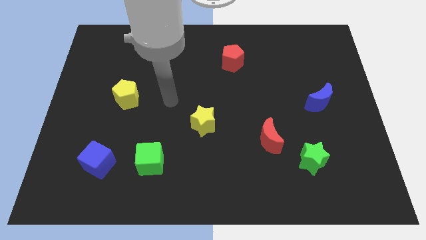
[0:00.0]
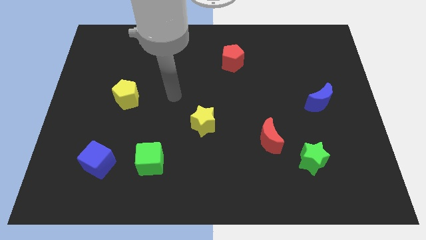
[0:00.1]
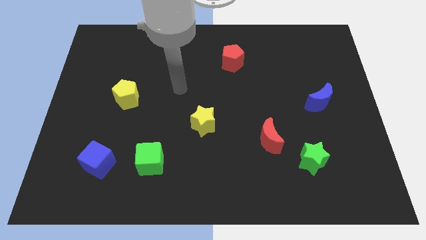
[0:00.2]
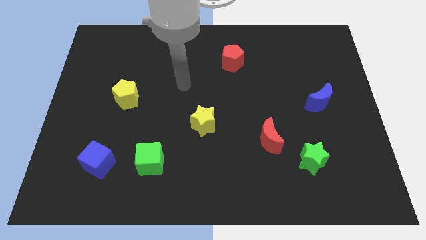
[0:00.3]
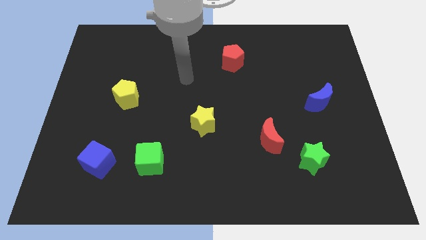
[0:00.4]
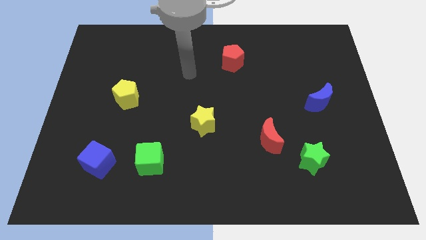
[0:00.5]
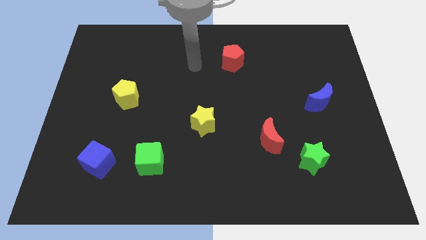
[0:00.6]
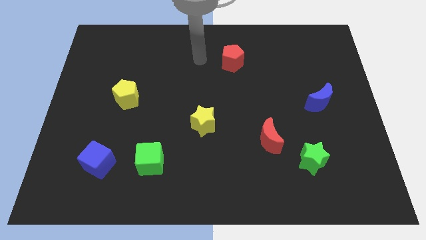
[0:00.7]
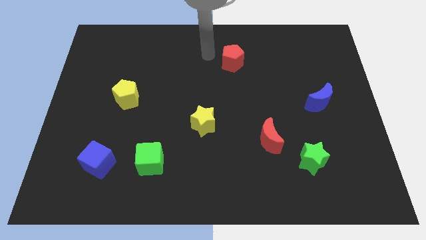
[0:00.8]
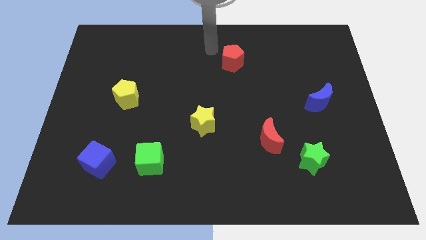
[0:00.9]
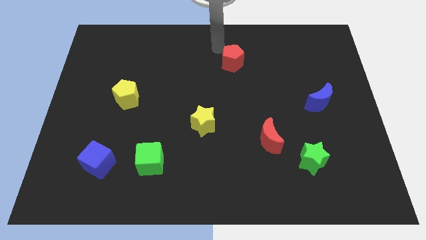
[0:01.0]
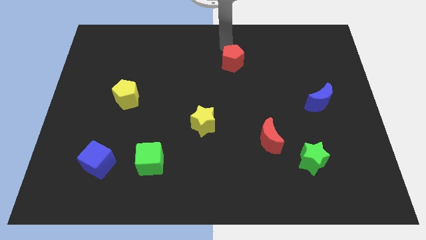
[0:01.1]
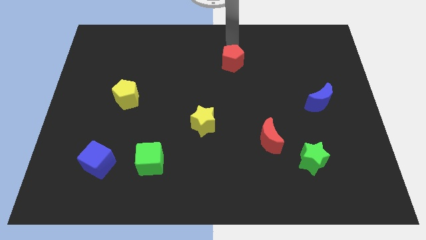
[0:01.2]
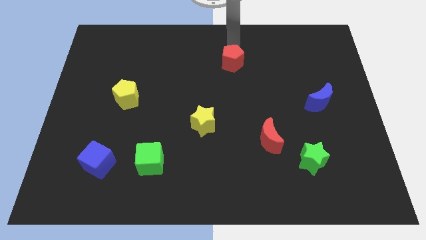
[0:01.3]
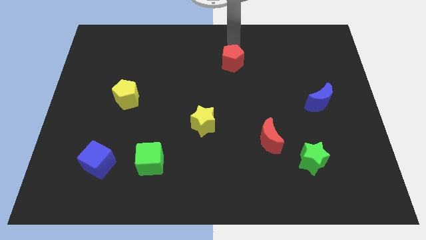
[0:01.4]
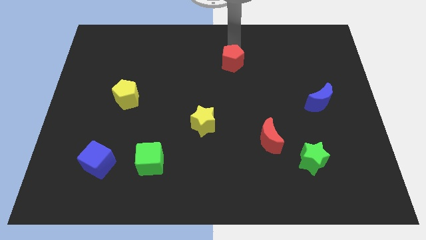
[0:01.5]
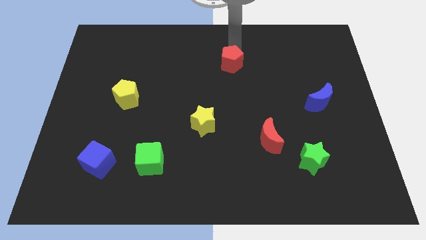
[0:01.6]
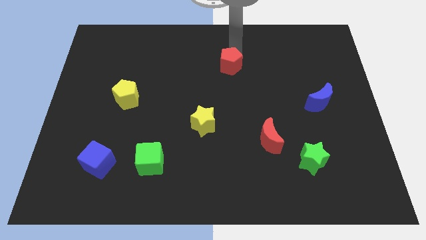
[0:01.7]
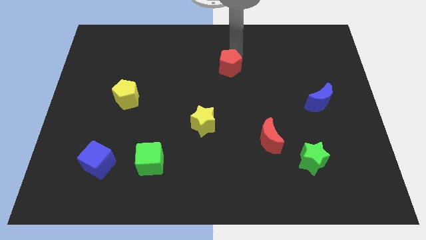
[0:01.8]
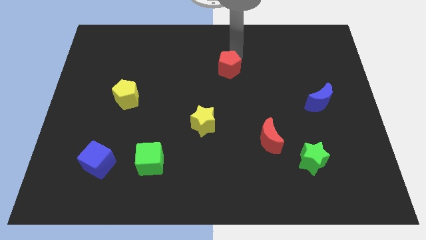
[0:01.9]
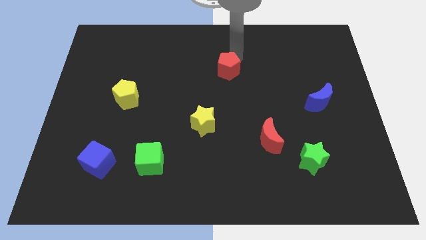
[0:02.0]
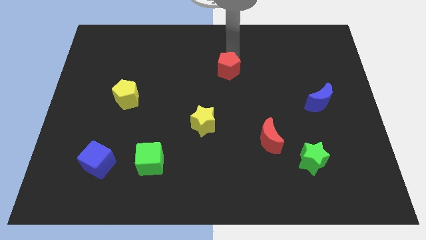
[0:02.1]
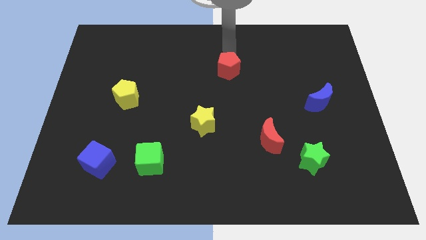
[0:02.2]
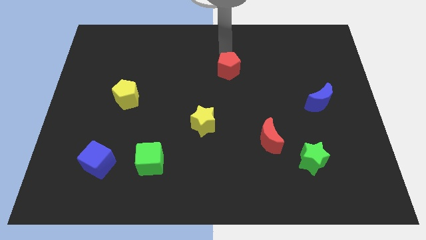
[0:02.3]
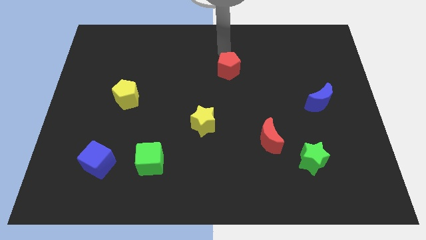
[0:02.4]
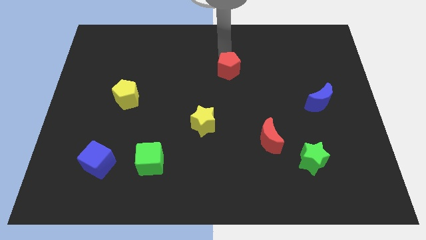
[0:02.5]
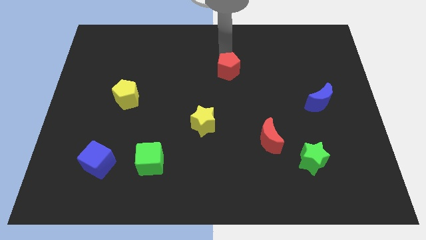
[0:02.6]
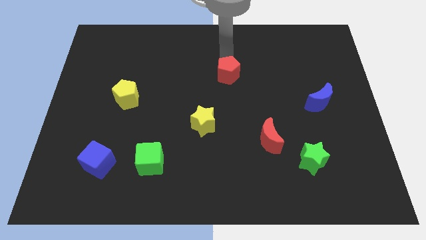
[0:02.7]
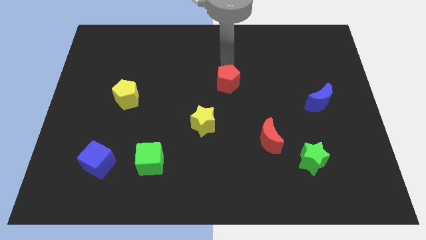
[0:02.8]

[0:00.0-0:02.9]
slightly slide the red pentagon down

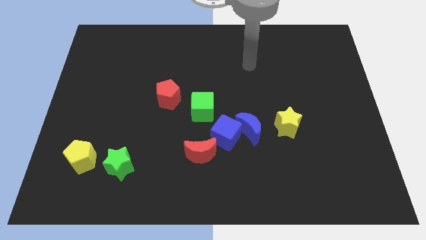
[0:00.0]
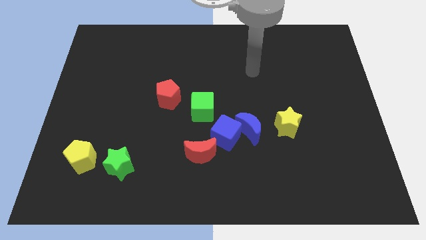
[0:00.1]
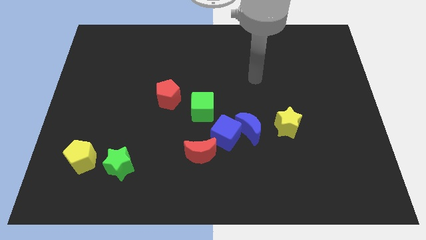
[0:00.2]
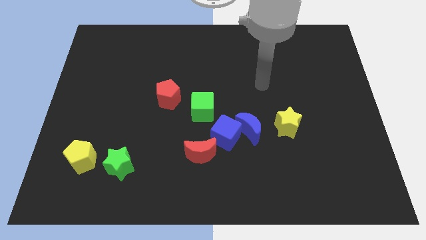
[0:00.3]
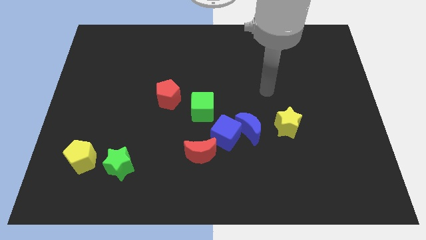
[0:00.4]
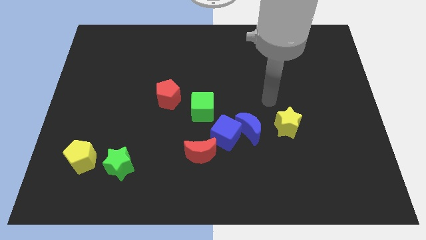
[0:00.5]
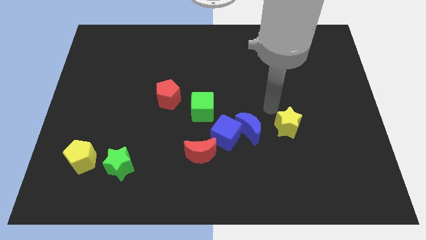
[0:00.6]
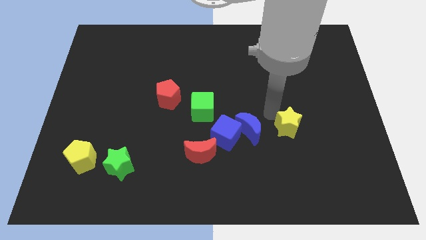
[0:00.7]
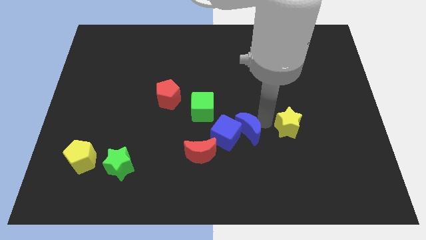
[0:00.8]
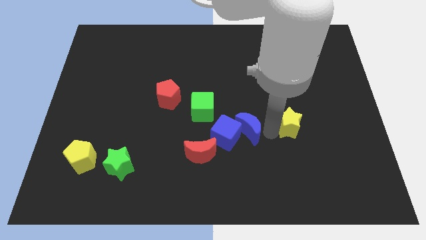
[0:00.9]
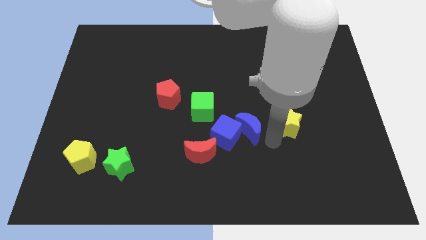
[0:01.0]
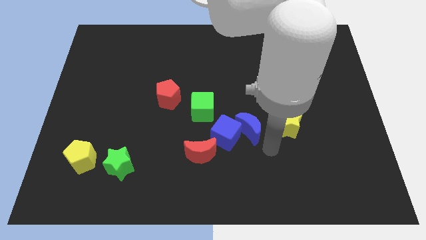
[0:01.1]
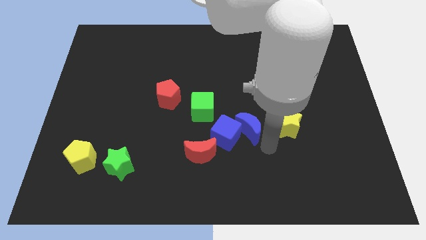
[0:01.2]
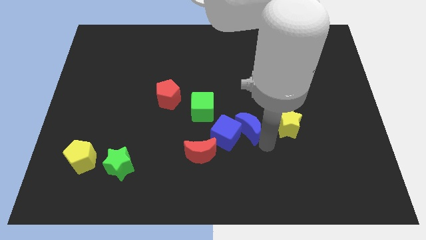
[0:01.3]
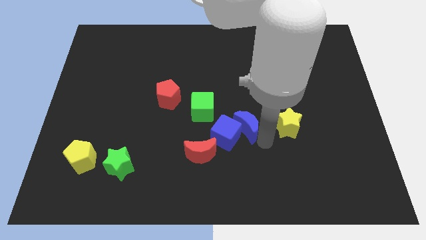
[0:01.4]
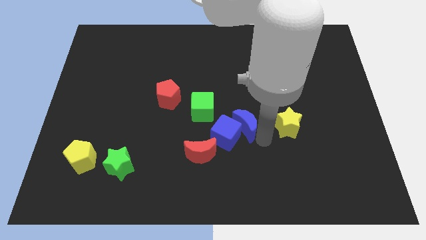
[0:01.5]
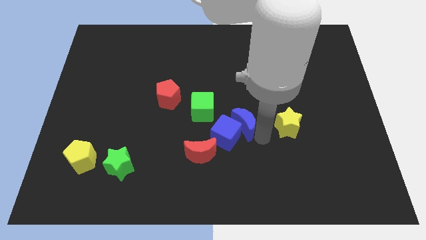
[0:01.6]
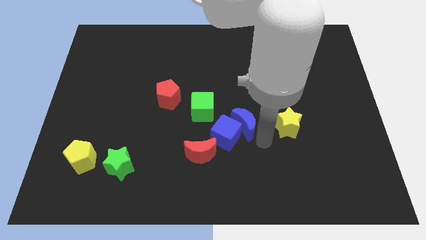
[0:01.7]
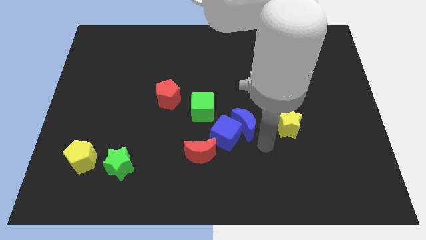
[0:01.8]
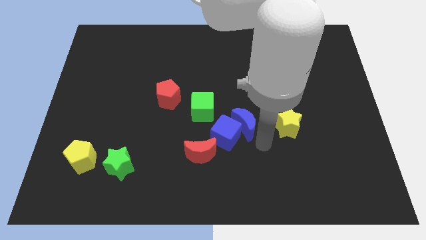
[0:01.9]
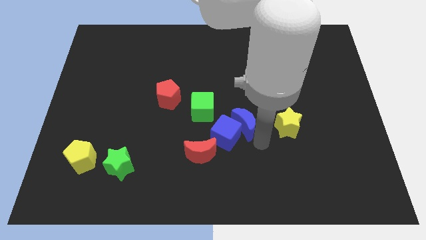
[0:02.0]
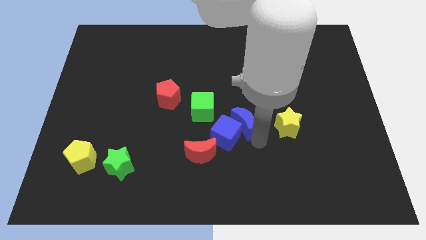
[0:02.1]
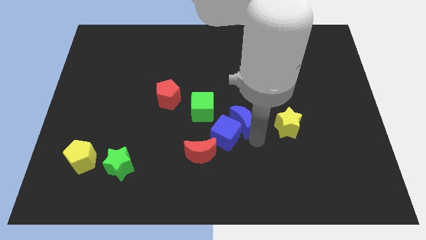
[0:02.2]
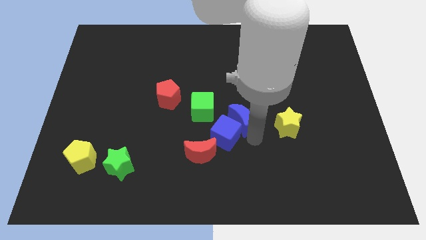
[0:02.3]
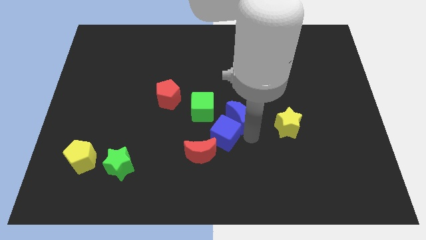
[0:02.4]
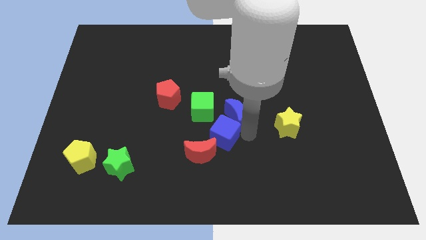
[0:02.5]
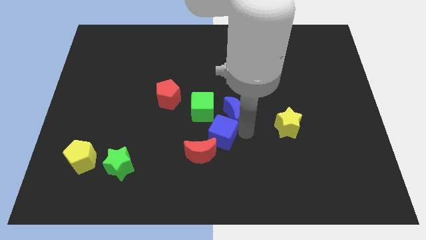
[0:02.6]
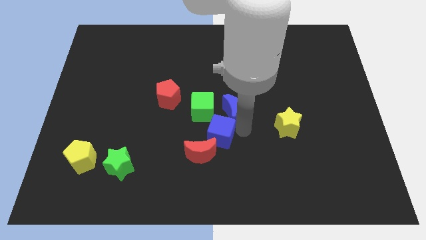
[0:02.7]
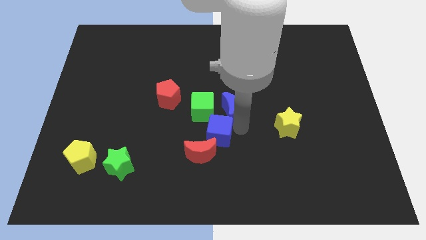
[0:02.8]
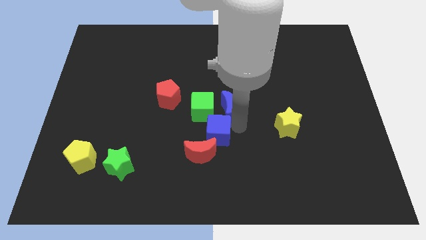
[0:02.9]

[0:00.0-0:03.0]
push the blue moon diagonally up and left somewhat

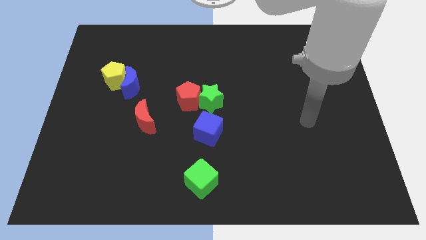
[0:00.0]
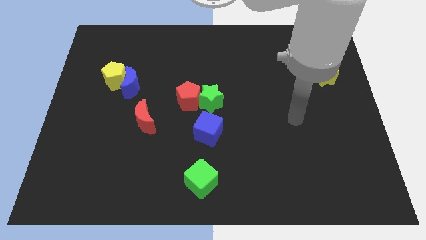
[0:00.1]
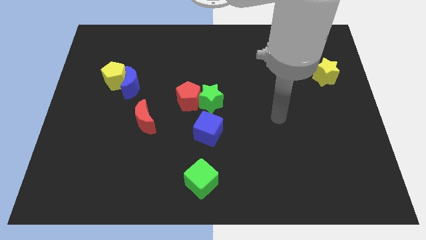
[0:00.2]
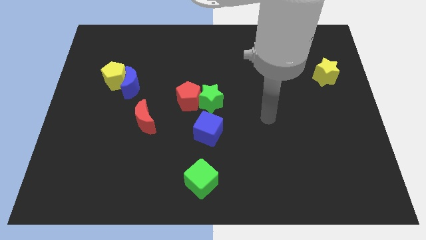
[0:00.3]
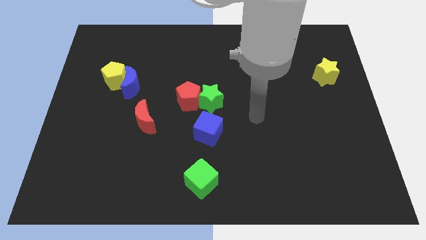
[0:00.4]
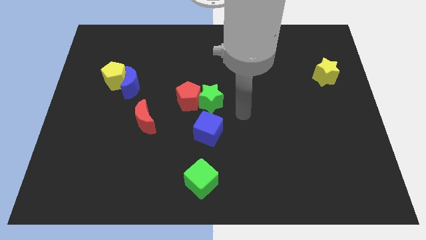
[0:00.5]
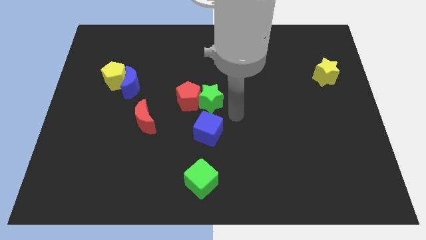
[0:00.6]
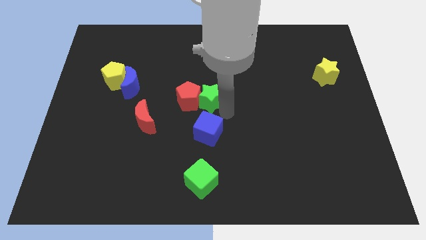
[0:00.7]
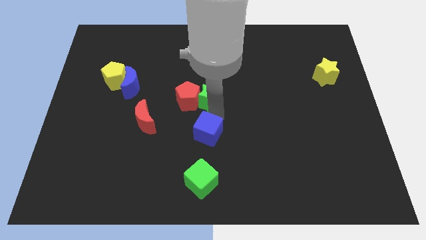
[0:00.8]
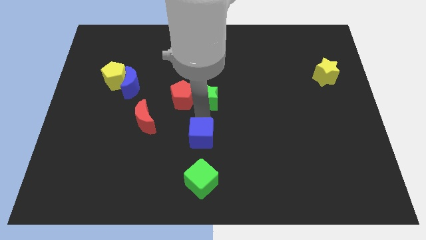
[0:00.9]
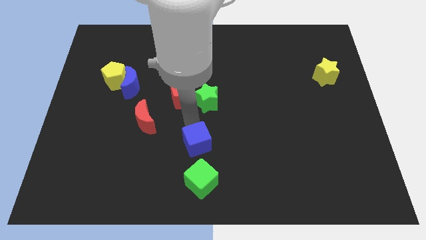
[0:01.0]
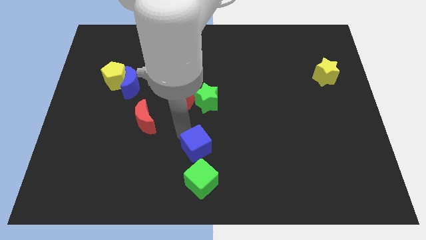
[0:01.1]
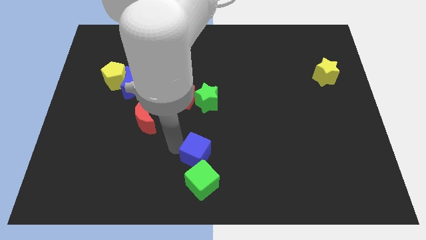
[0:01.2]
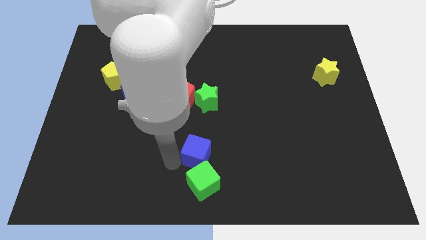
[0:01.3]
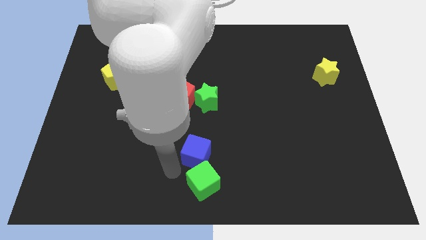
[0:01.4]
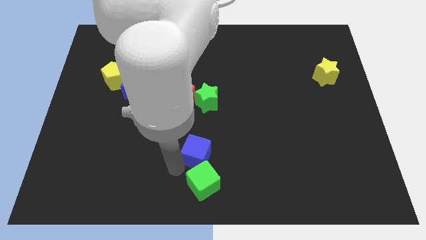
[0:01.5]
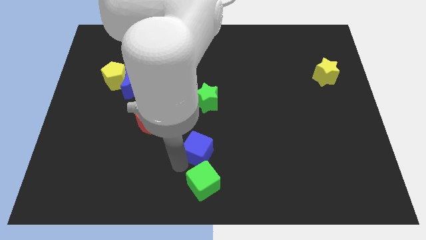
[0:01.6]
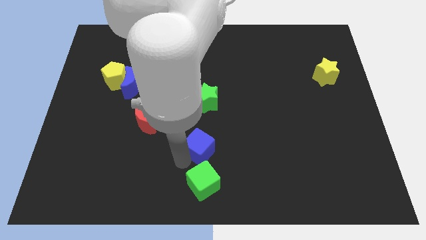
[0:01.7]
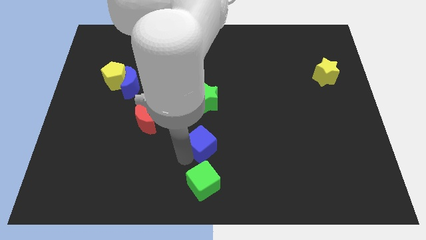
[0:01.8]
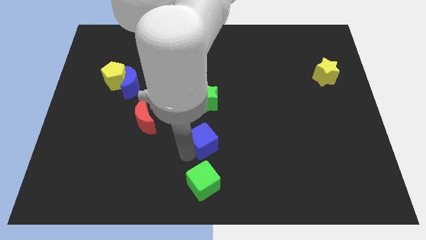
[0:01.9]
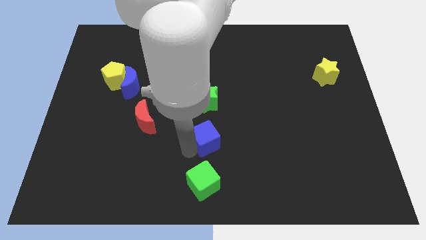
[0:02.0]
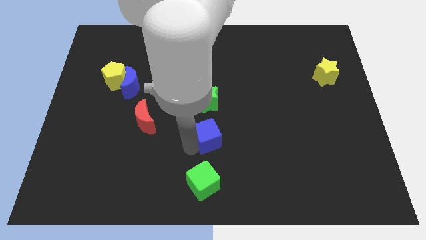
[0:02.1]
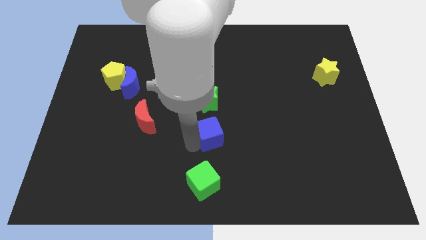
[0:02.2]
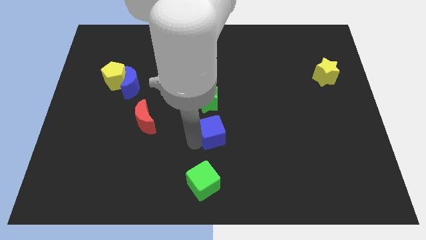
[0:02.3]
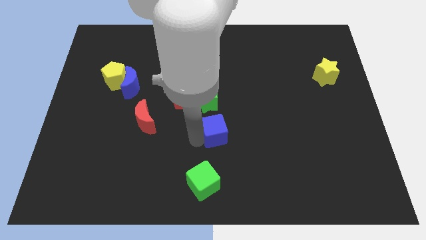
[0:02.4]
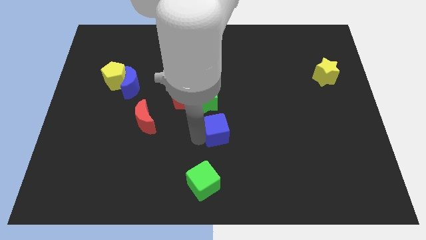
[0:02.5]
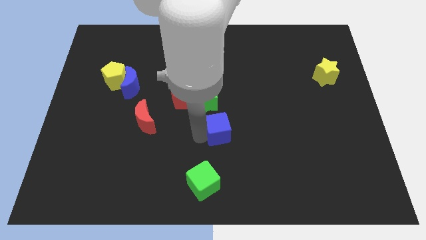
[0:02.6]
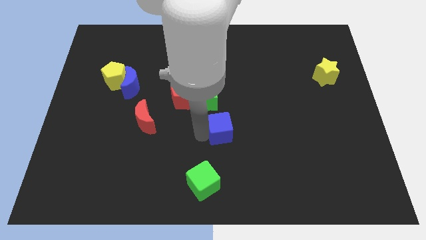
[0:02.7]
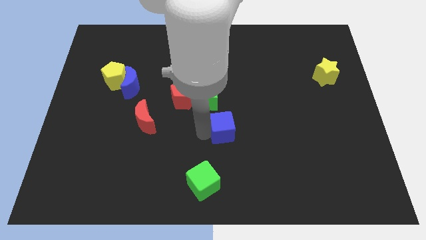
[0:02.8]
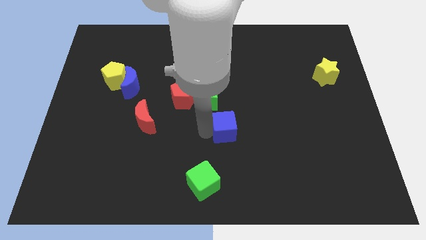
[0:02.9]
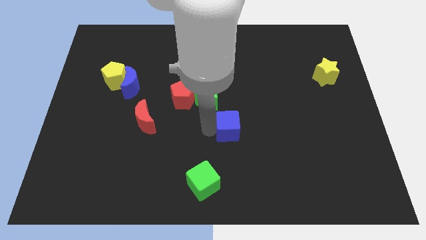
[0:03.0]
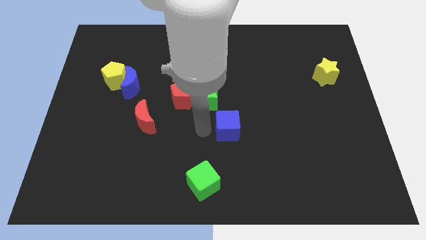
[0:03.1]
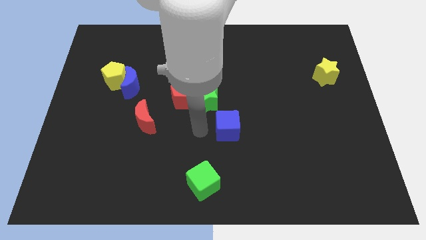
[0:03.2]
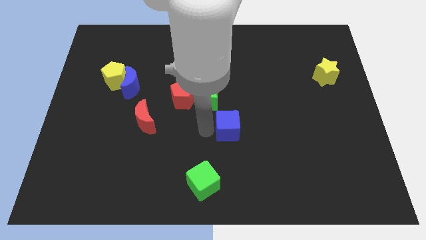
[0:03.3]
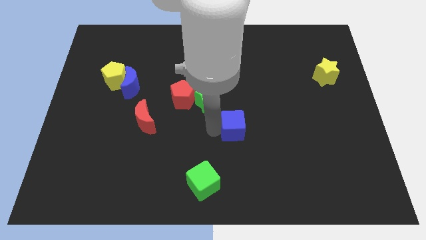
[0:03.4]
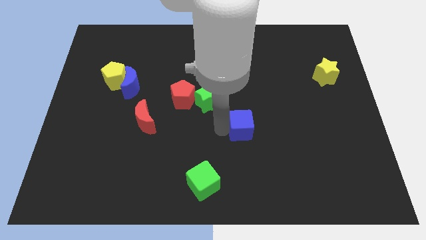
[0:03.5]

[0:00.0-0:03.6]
push the blue cube to the right somewhat
